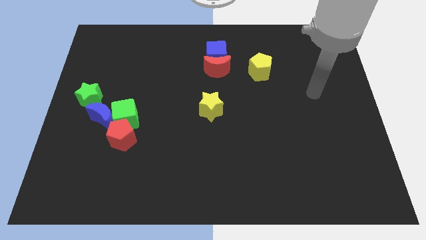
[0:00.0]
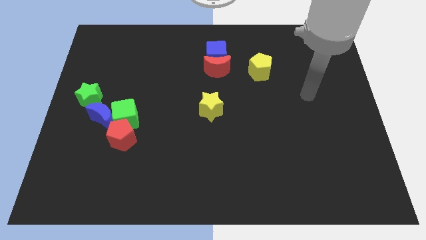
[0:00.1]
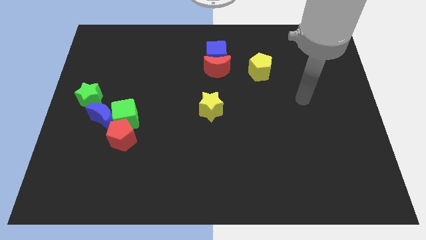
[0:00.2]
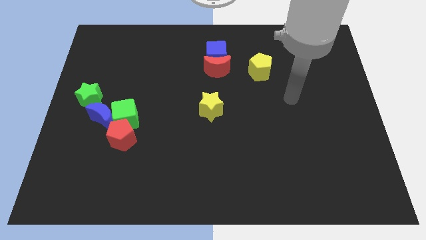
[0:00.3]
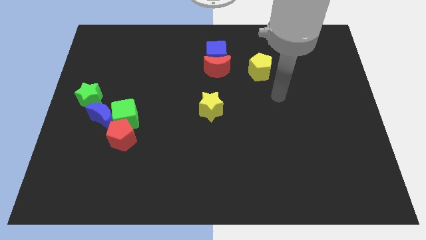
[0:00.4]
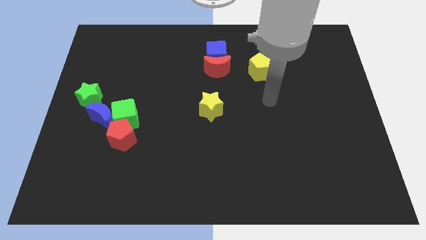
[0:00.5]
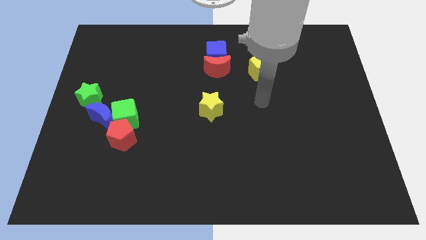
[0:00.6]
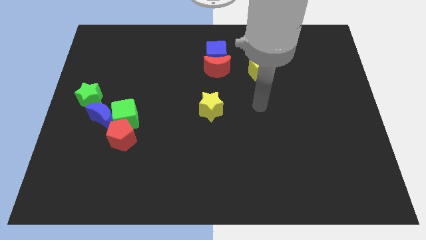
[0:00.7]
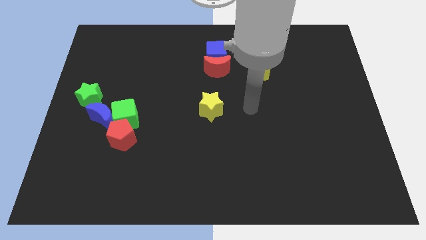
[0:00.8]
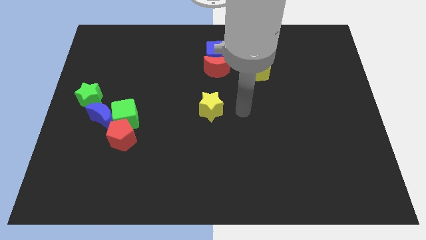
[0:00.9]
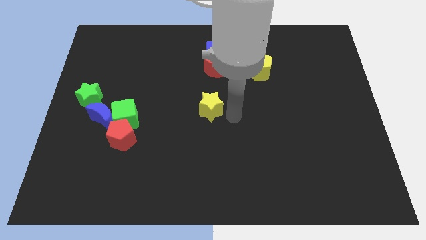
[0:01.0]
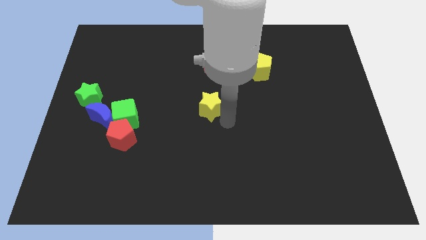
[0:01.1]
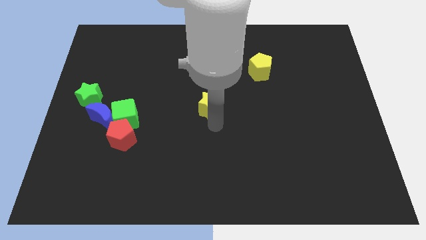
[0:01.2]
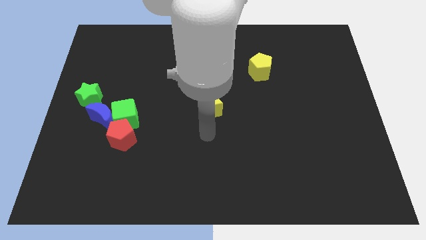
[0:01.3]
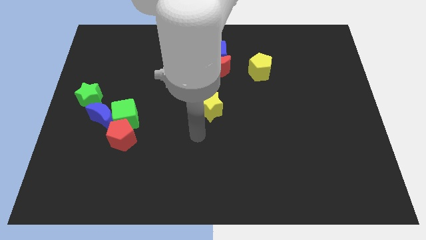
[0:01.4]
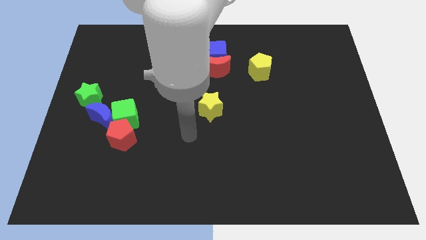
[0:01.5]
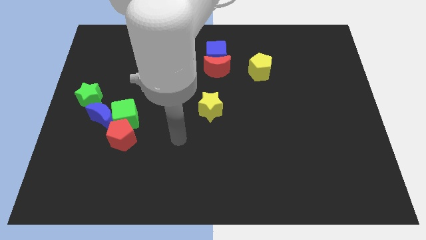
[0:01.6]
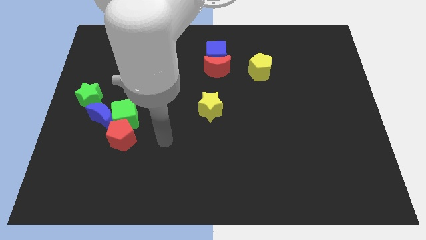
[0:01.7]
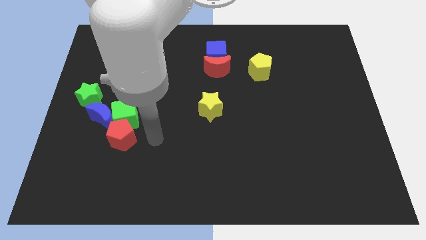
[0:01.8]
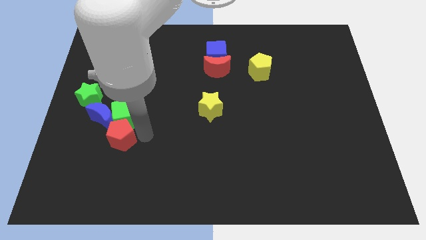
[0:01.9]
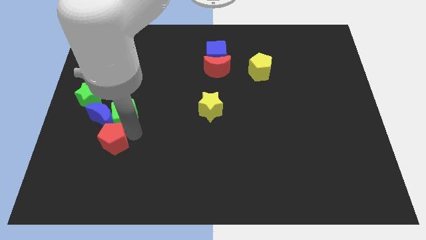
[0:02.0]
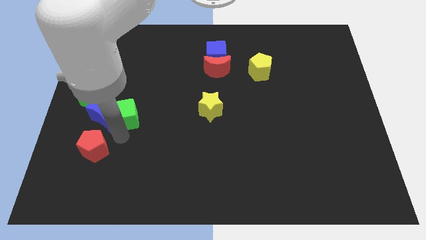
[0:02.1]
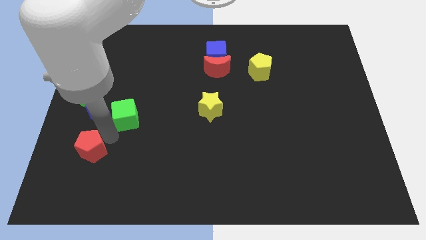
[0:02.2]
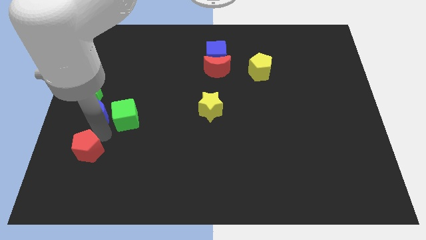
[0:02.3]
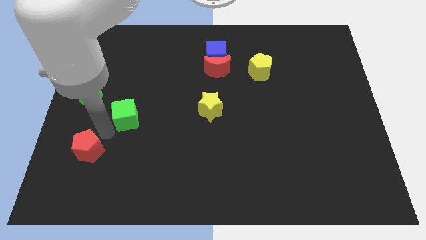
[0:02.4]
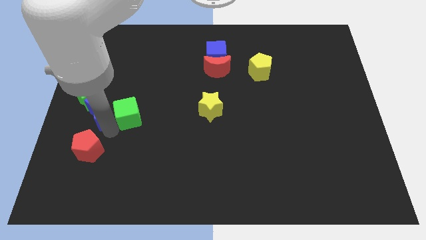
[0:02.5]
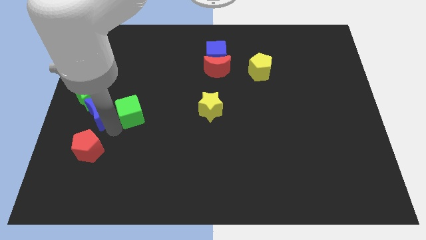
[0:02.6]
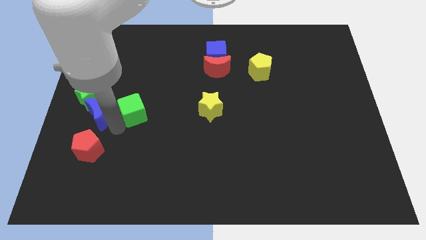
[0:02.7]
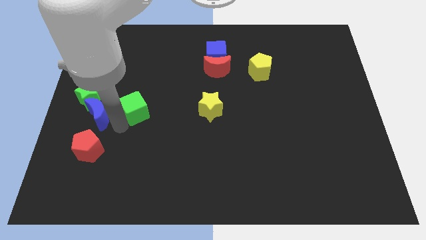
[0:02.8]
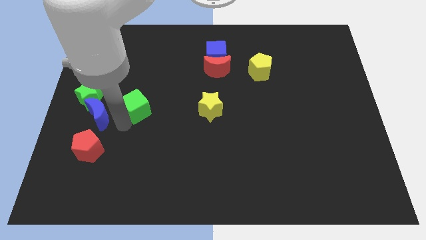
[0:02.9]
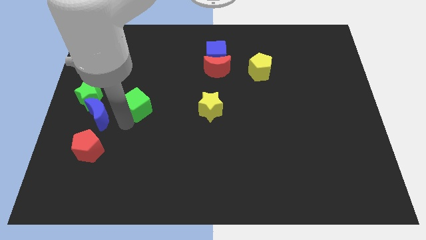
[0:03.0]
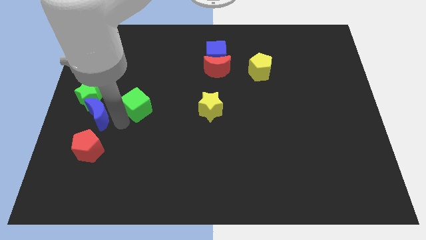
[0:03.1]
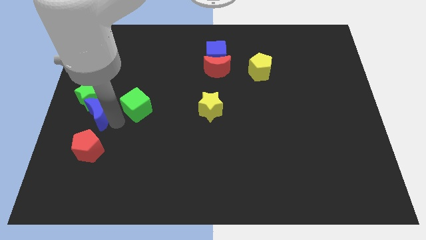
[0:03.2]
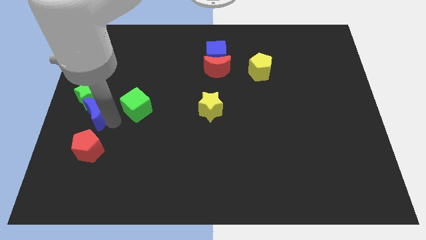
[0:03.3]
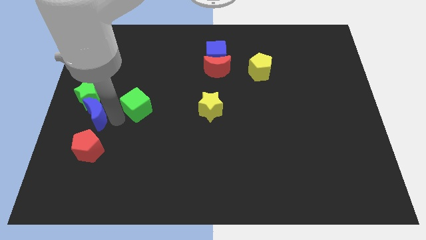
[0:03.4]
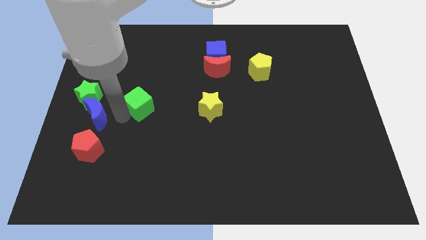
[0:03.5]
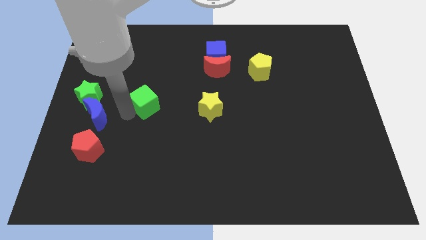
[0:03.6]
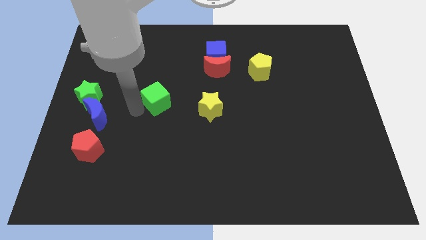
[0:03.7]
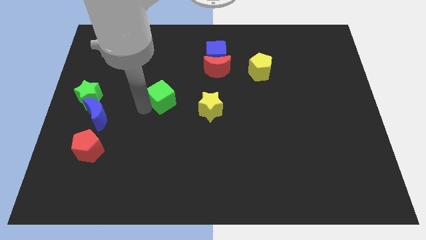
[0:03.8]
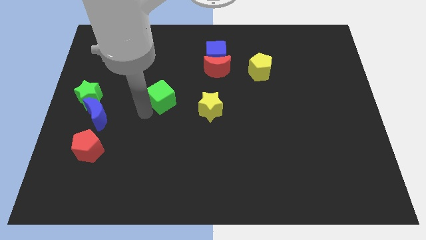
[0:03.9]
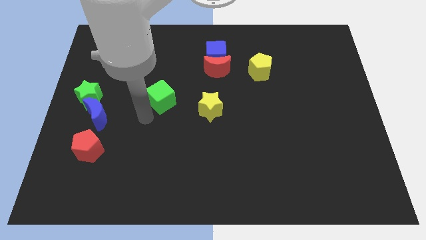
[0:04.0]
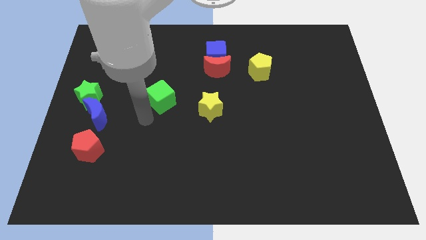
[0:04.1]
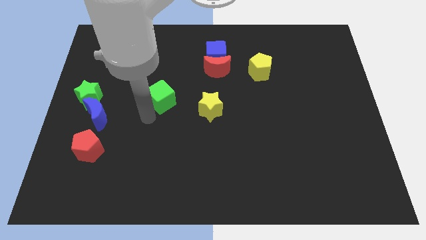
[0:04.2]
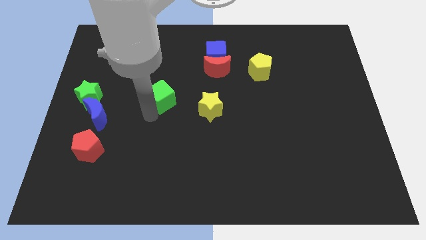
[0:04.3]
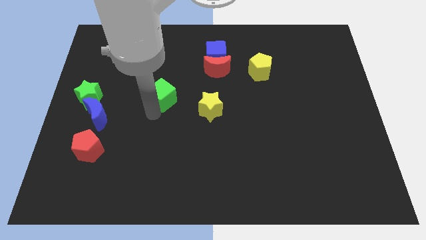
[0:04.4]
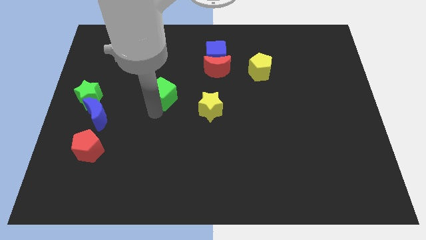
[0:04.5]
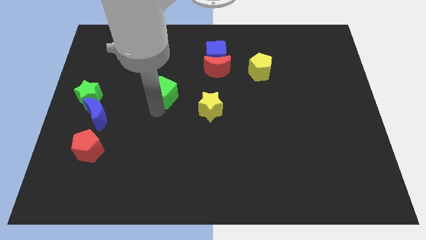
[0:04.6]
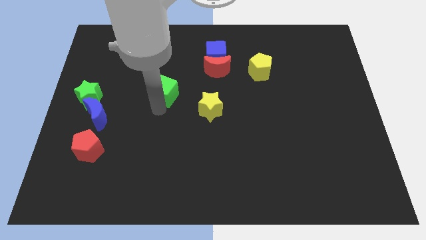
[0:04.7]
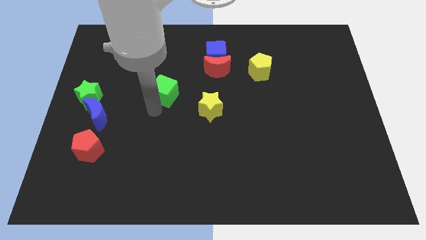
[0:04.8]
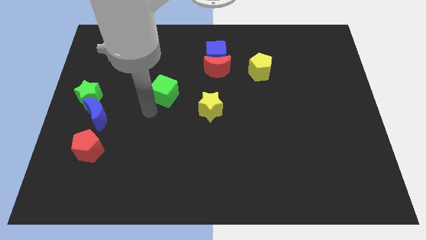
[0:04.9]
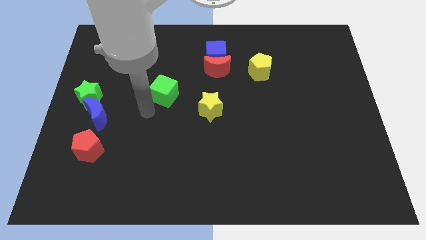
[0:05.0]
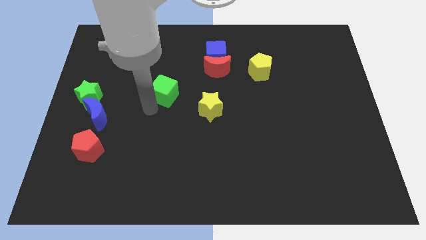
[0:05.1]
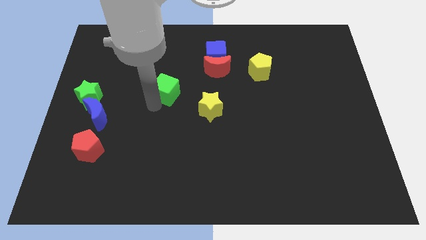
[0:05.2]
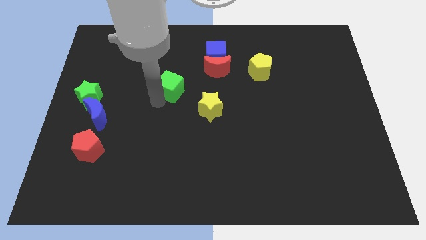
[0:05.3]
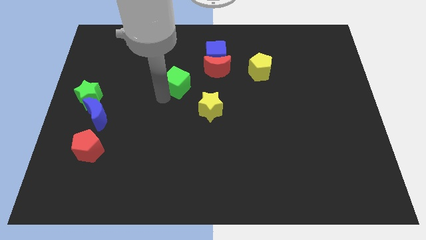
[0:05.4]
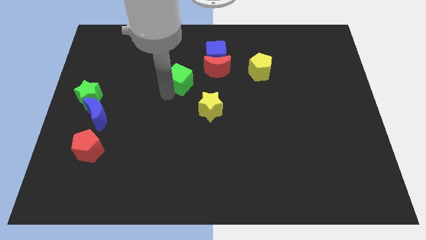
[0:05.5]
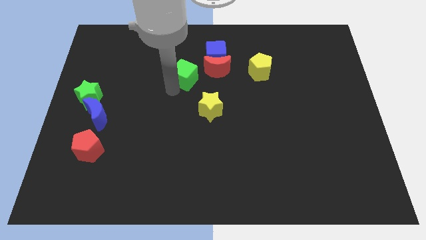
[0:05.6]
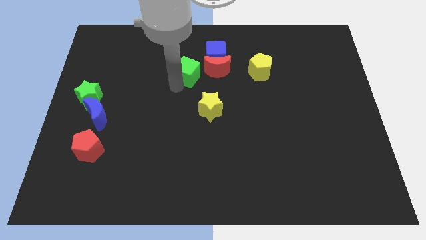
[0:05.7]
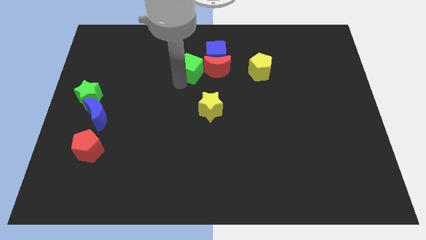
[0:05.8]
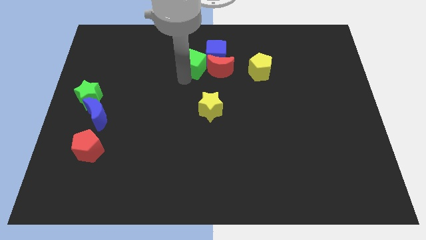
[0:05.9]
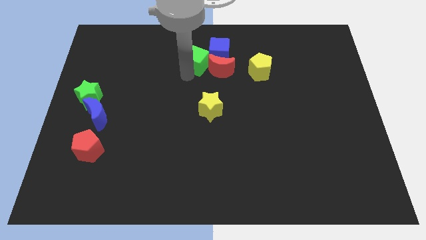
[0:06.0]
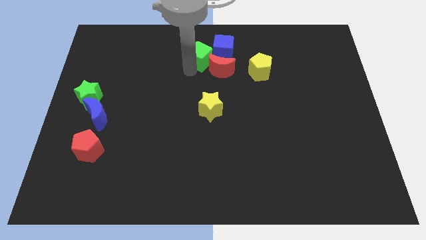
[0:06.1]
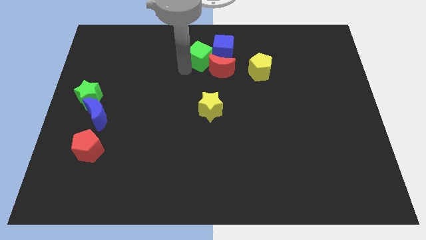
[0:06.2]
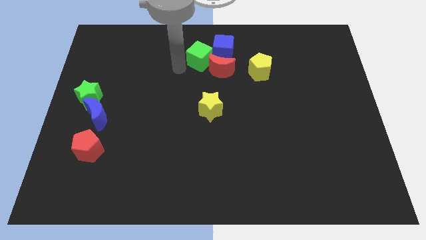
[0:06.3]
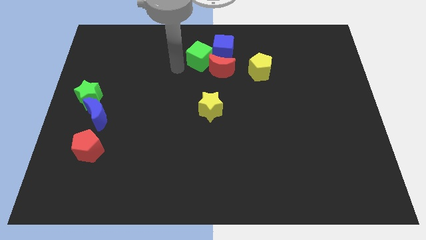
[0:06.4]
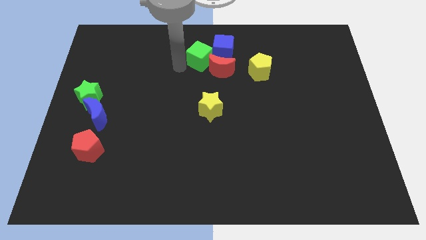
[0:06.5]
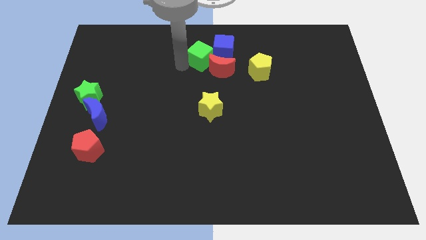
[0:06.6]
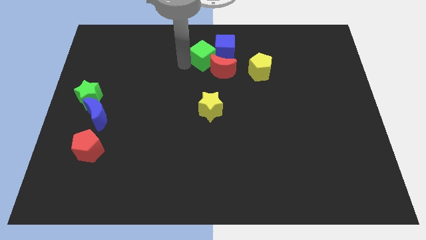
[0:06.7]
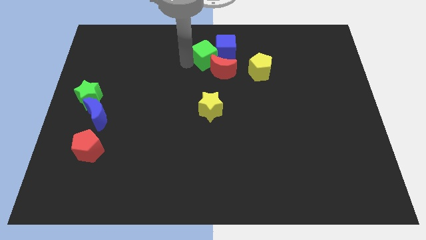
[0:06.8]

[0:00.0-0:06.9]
put the green cube towards the blue cube

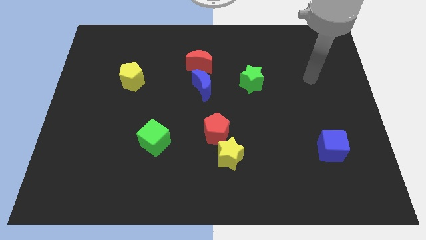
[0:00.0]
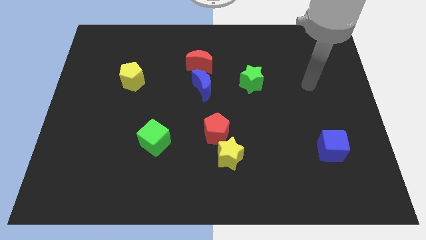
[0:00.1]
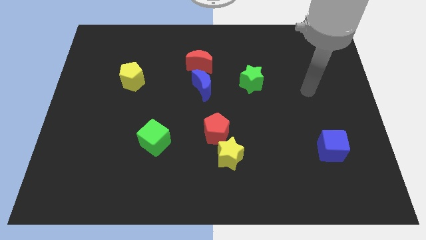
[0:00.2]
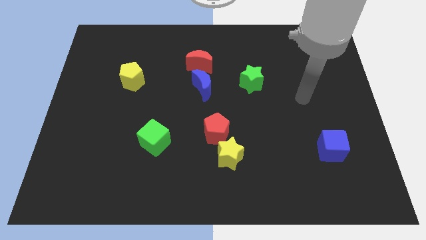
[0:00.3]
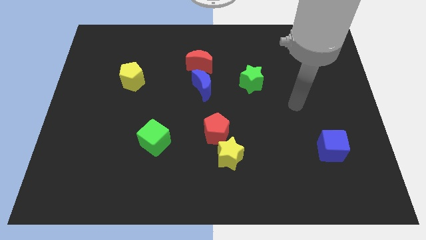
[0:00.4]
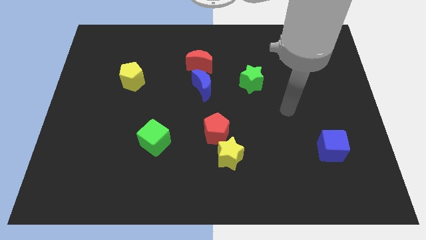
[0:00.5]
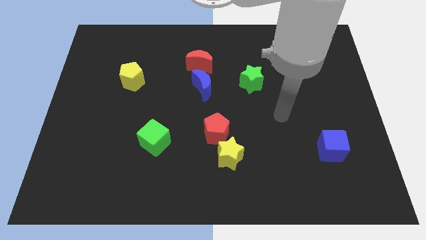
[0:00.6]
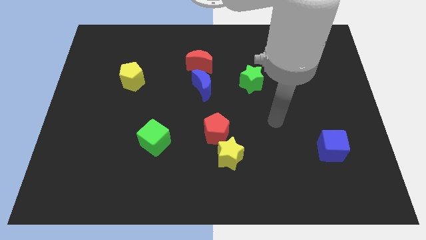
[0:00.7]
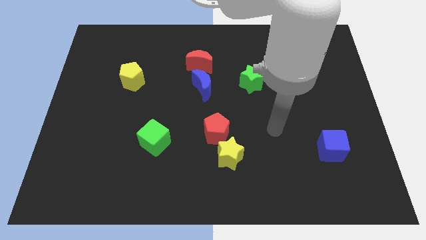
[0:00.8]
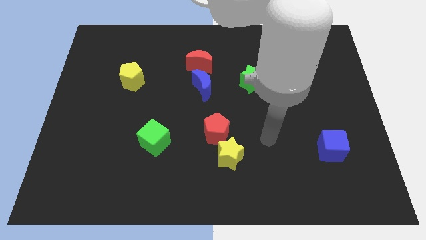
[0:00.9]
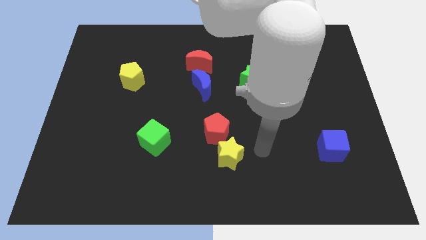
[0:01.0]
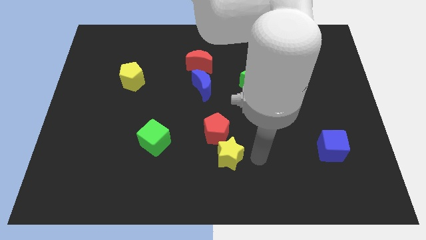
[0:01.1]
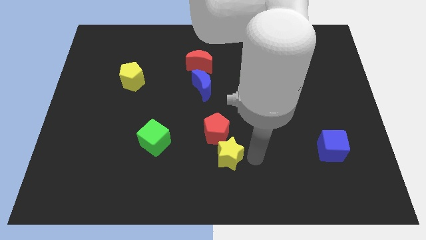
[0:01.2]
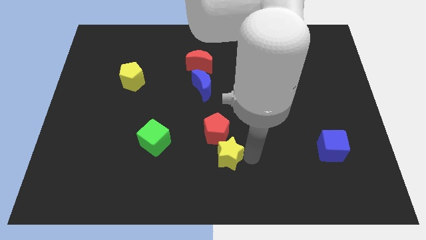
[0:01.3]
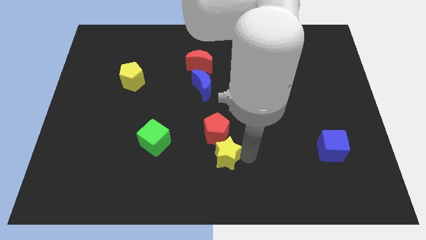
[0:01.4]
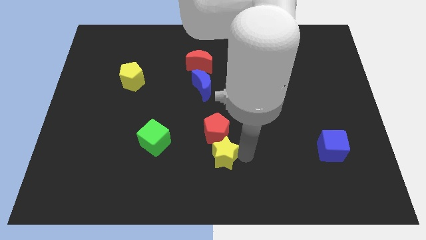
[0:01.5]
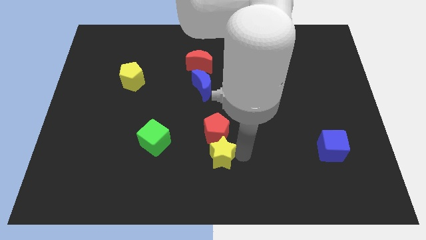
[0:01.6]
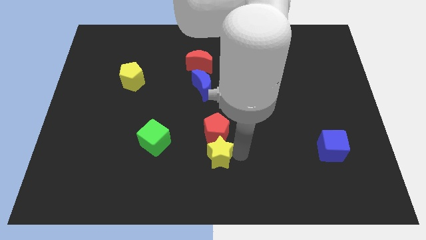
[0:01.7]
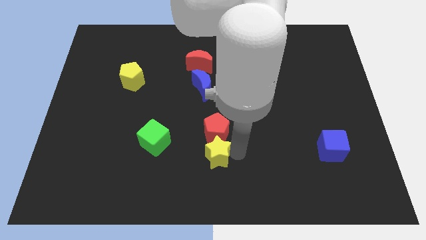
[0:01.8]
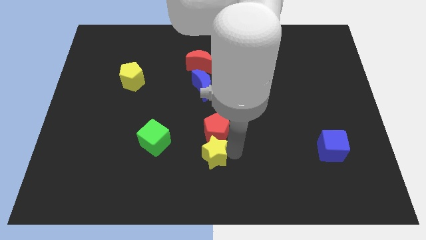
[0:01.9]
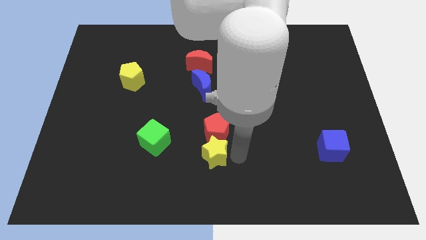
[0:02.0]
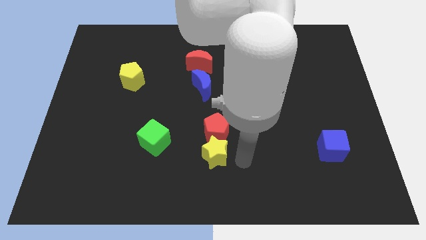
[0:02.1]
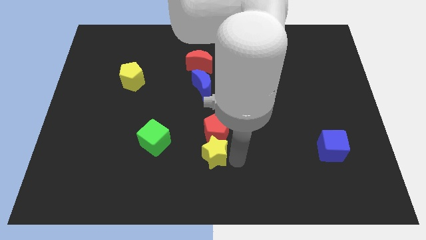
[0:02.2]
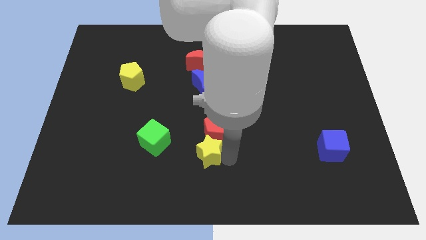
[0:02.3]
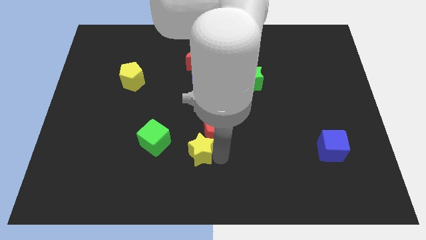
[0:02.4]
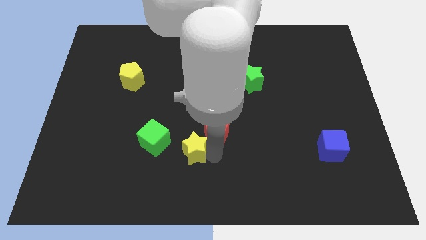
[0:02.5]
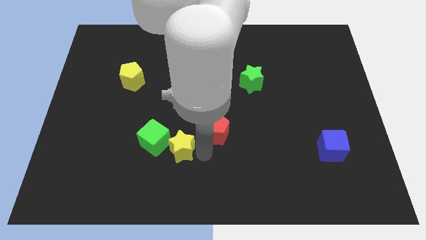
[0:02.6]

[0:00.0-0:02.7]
put the yellow star close to the green cube
